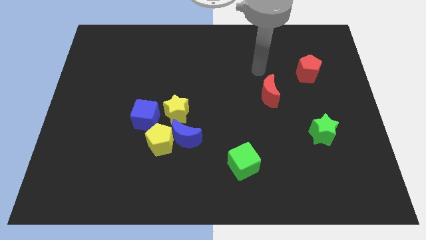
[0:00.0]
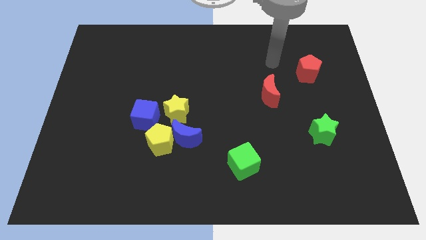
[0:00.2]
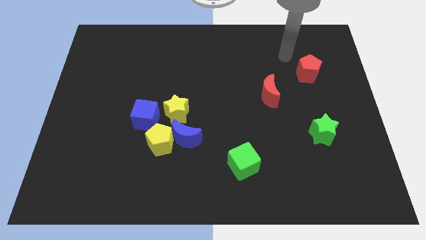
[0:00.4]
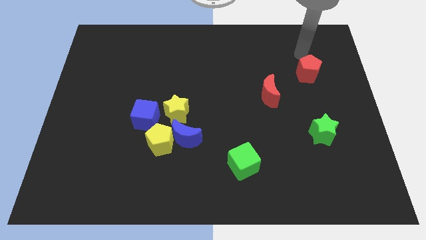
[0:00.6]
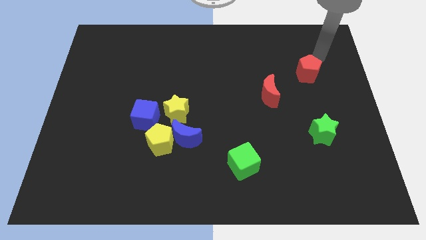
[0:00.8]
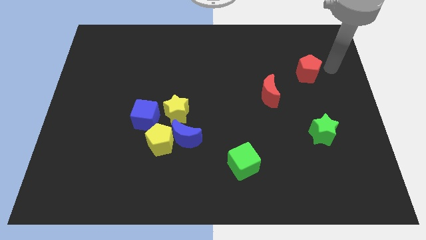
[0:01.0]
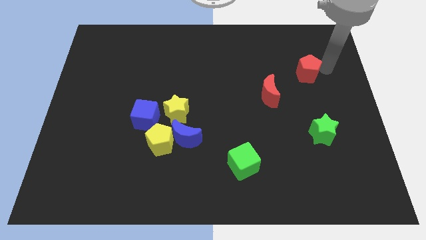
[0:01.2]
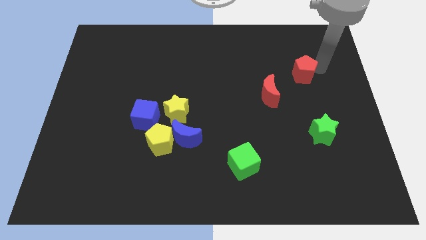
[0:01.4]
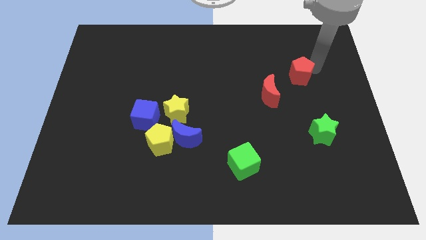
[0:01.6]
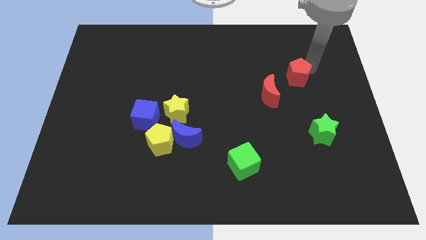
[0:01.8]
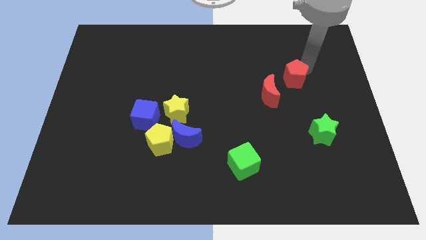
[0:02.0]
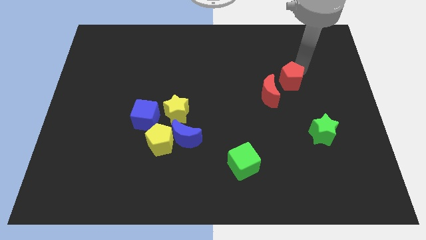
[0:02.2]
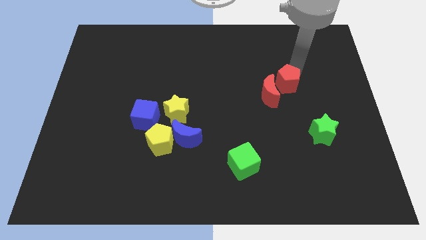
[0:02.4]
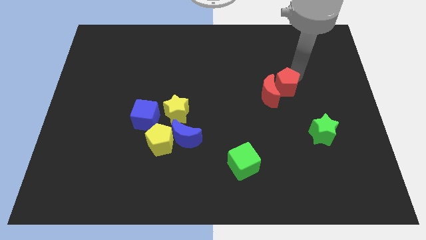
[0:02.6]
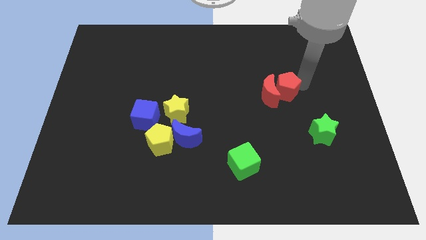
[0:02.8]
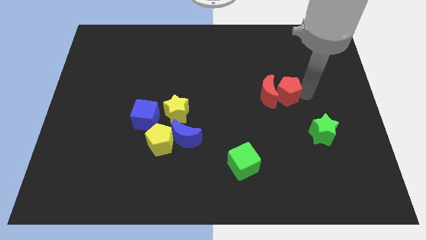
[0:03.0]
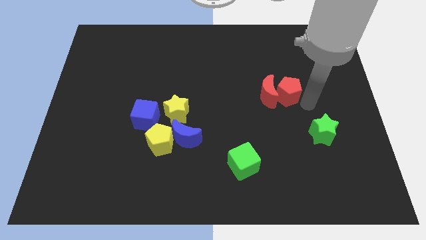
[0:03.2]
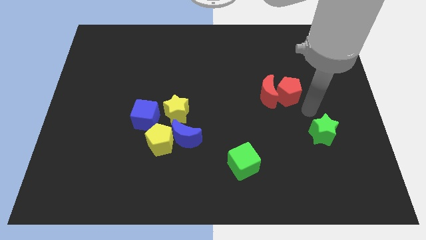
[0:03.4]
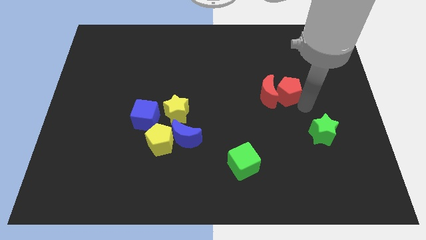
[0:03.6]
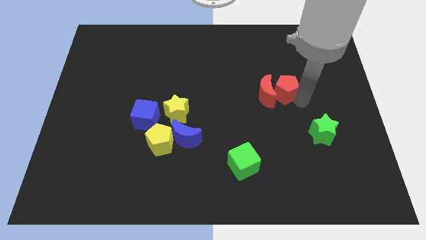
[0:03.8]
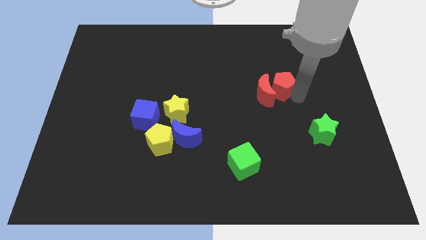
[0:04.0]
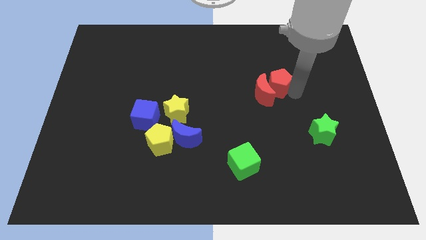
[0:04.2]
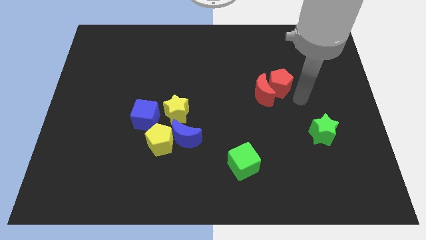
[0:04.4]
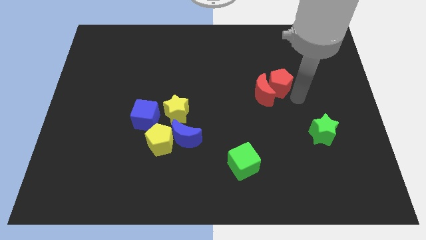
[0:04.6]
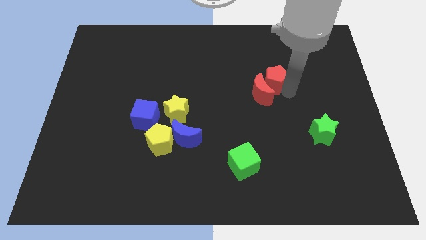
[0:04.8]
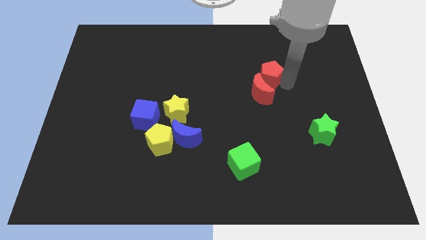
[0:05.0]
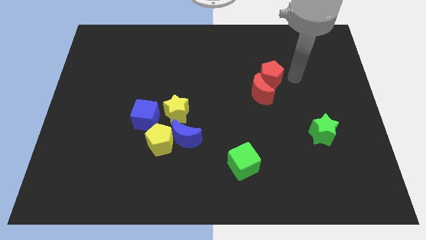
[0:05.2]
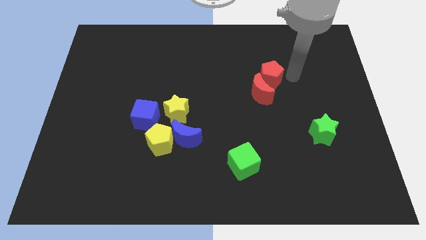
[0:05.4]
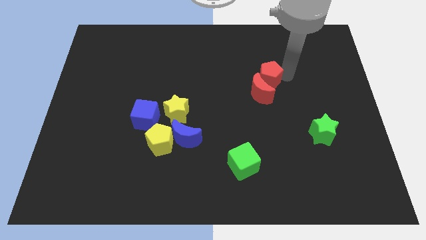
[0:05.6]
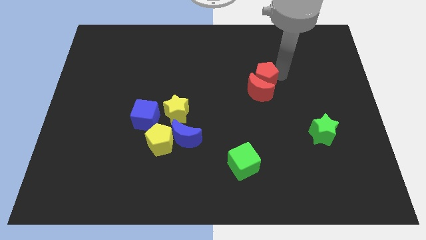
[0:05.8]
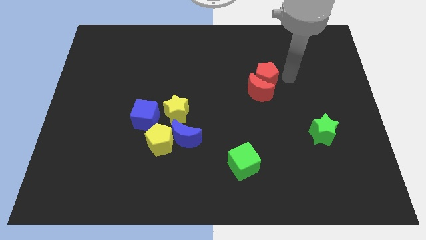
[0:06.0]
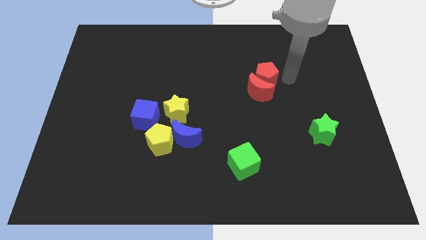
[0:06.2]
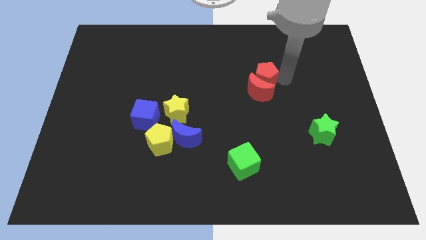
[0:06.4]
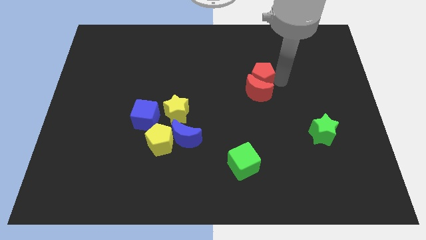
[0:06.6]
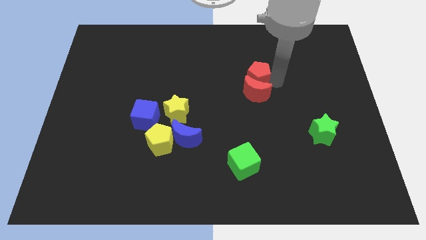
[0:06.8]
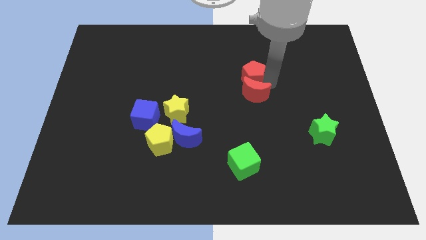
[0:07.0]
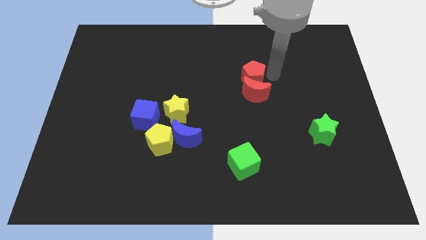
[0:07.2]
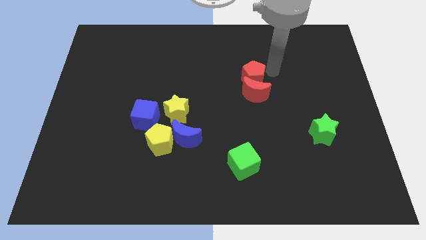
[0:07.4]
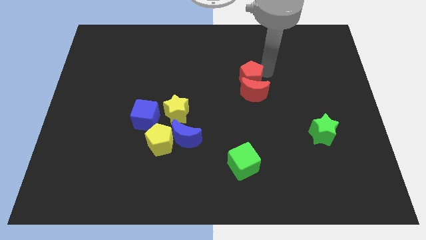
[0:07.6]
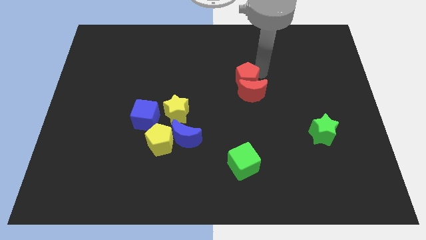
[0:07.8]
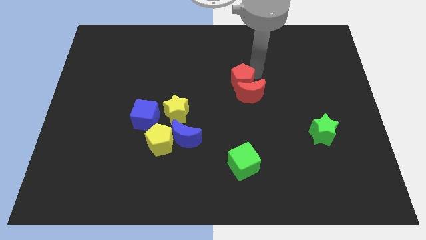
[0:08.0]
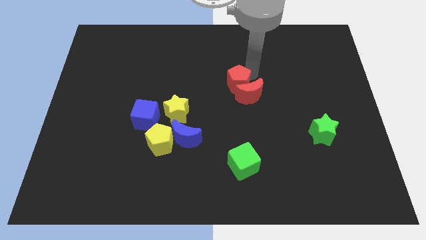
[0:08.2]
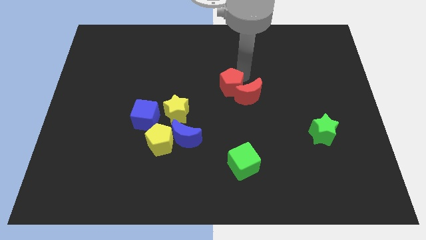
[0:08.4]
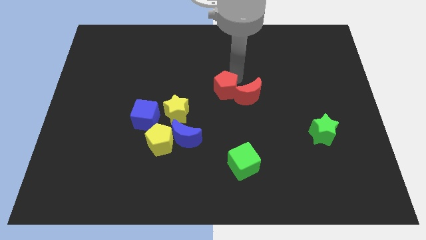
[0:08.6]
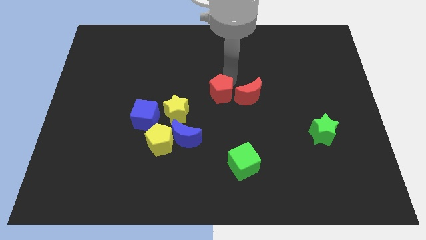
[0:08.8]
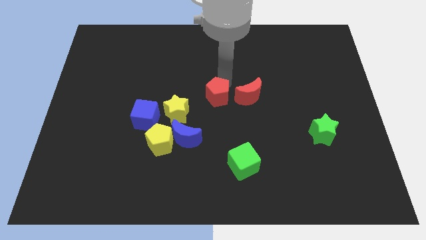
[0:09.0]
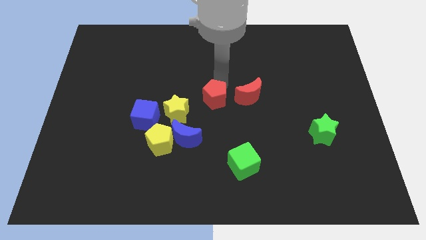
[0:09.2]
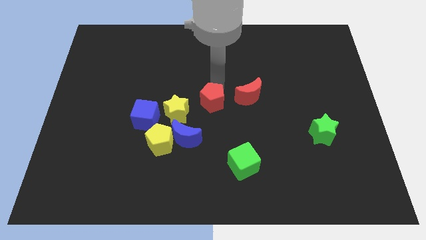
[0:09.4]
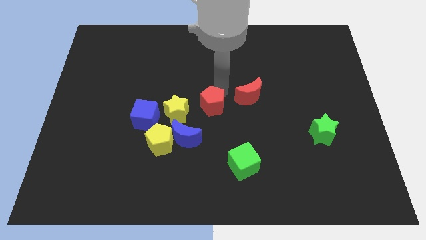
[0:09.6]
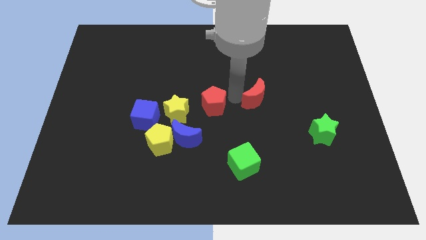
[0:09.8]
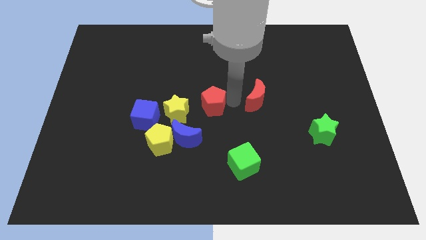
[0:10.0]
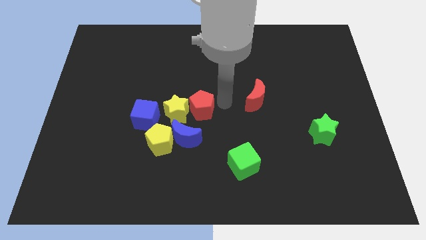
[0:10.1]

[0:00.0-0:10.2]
put the red pentagon towards the yellow star

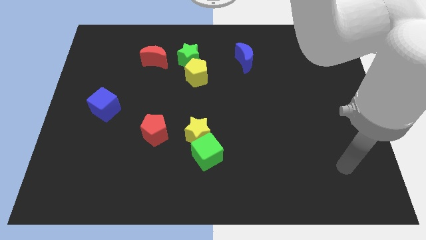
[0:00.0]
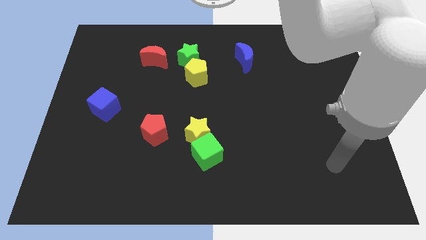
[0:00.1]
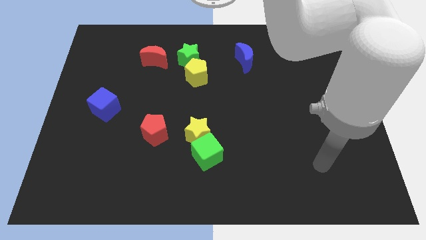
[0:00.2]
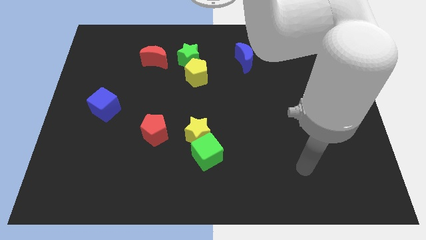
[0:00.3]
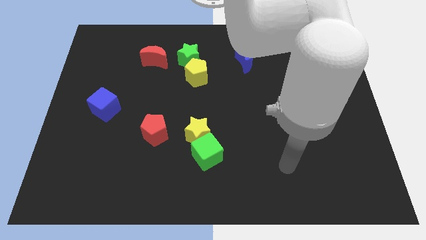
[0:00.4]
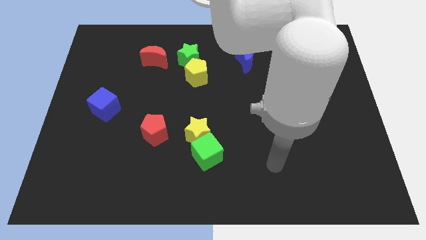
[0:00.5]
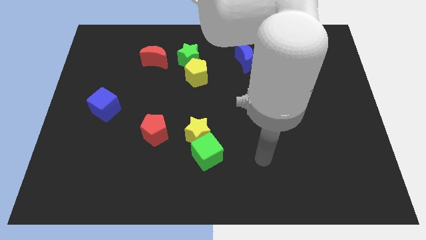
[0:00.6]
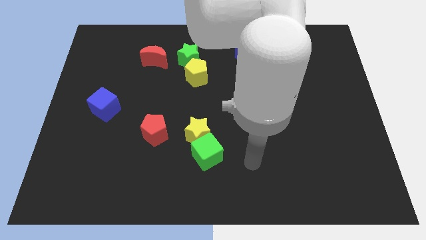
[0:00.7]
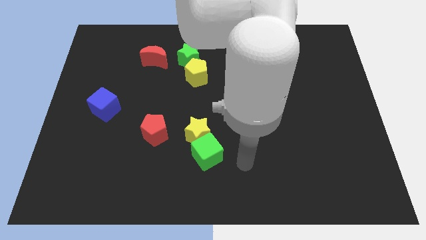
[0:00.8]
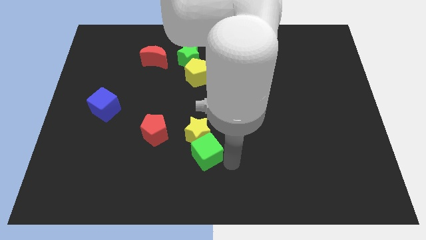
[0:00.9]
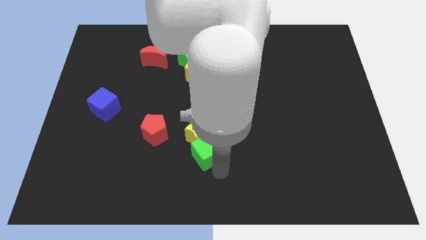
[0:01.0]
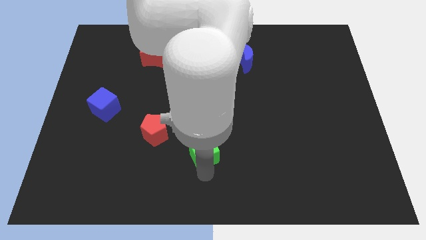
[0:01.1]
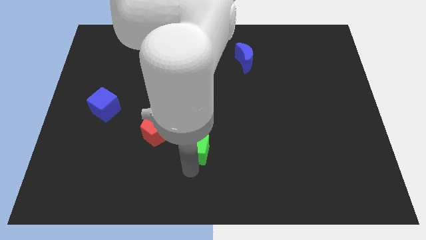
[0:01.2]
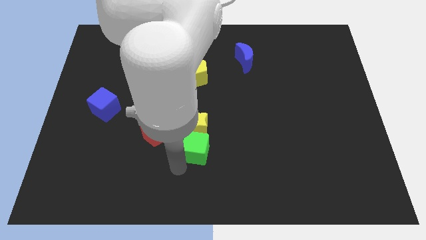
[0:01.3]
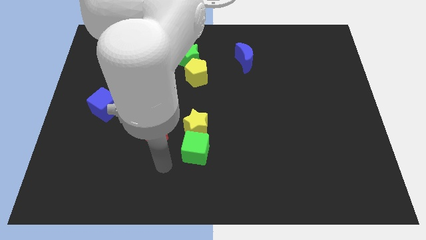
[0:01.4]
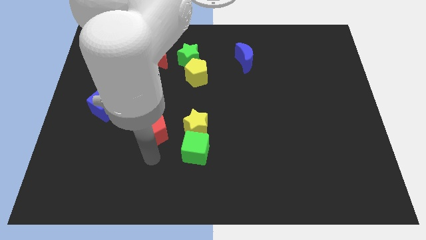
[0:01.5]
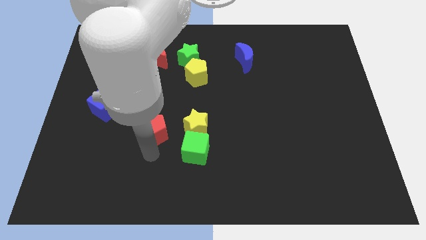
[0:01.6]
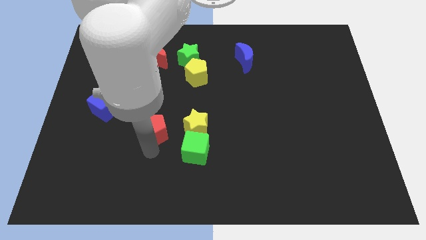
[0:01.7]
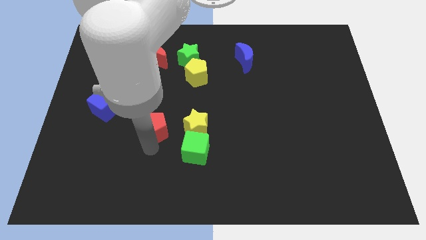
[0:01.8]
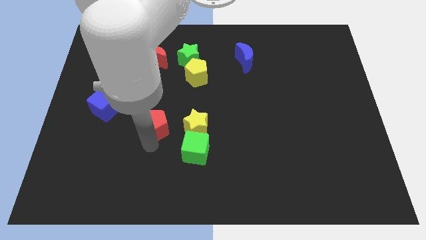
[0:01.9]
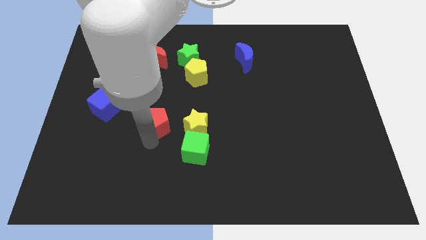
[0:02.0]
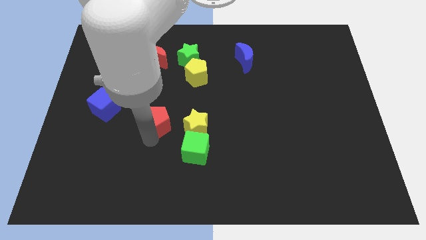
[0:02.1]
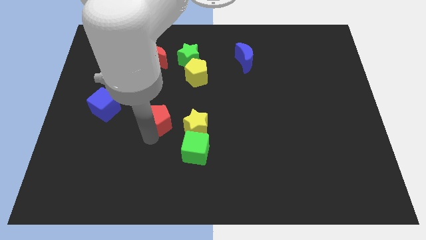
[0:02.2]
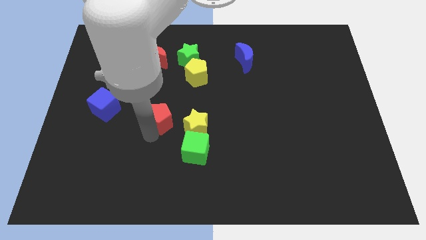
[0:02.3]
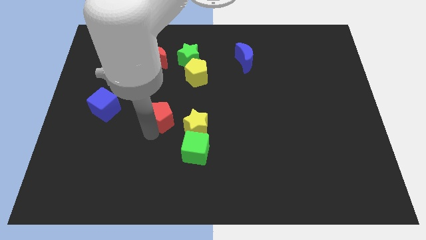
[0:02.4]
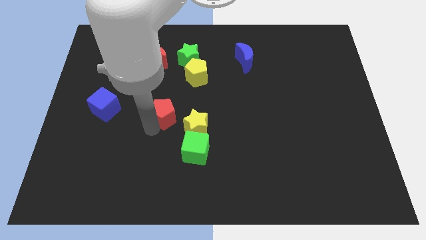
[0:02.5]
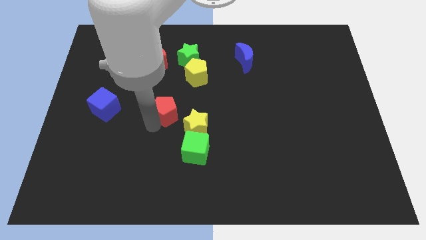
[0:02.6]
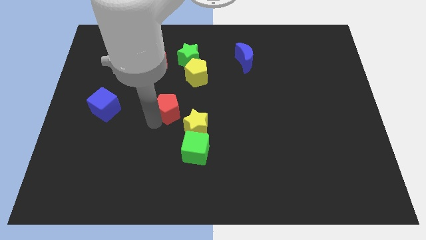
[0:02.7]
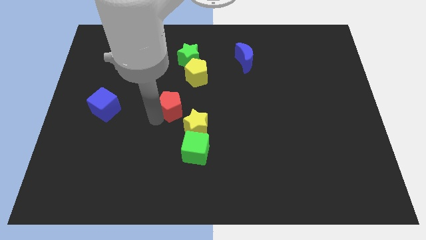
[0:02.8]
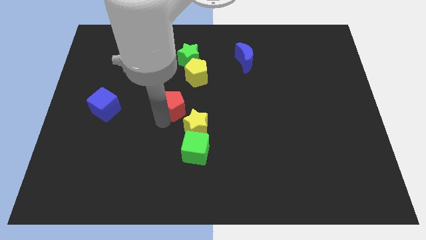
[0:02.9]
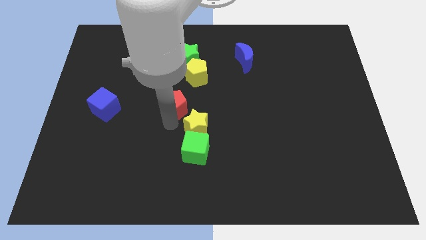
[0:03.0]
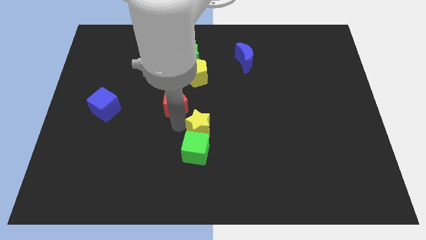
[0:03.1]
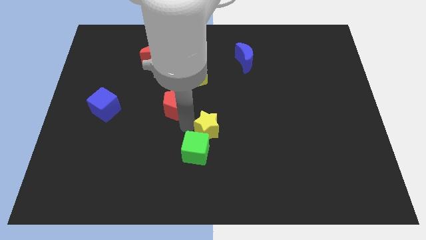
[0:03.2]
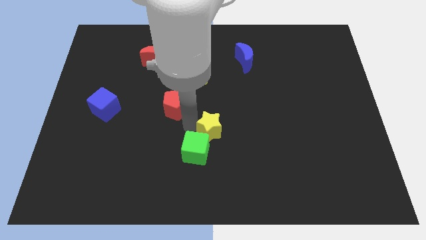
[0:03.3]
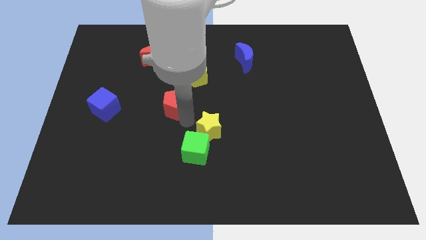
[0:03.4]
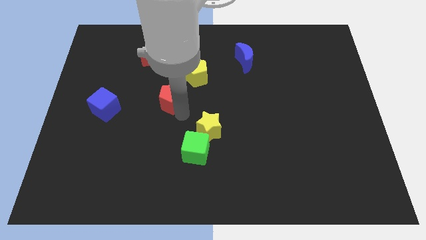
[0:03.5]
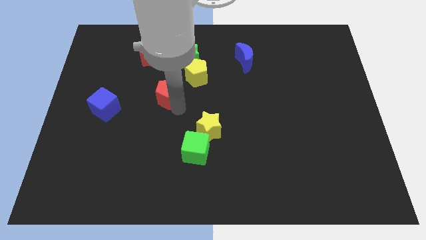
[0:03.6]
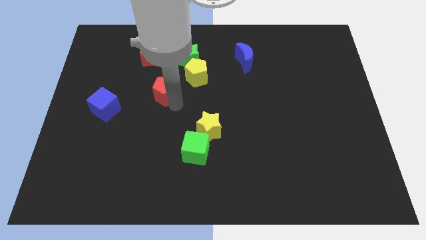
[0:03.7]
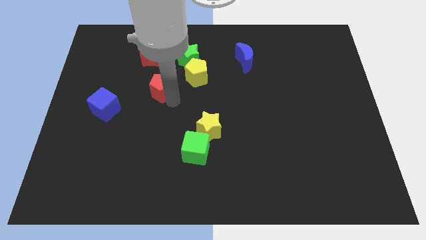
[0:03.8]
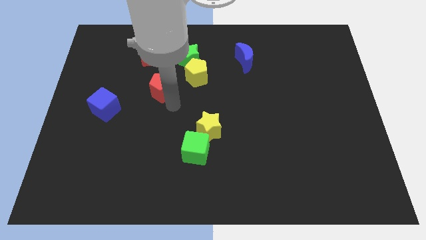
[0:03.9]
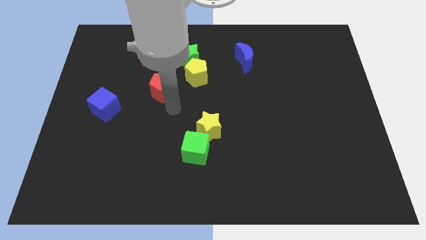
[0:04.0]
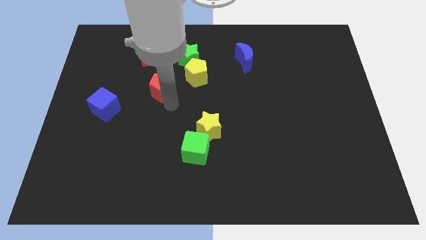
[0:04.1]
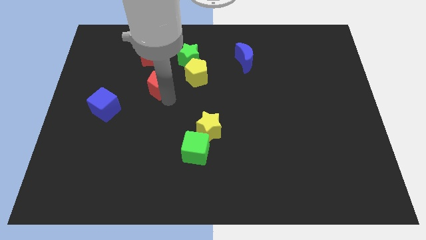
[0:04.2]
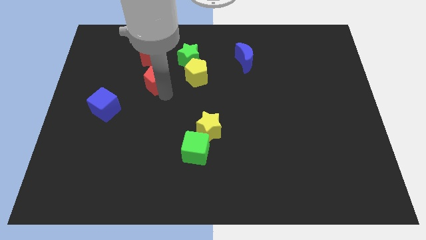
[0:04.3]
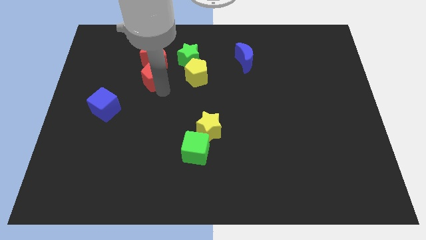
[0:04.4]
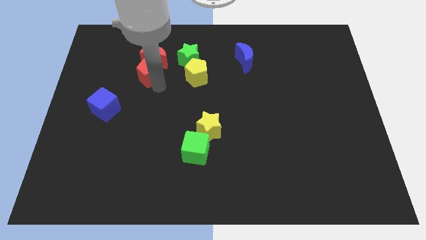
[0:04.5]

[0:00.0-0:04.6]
move the red pentagon close to the red moon
